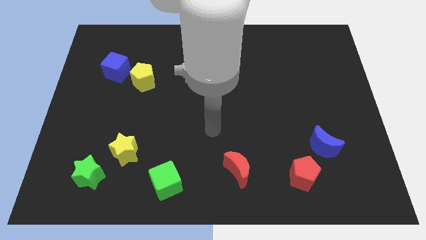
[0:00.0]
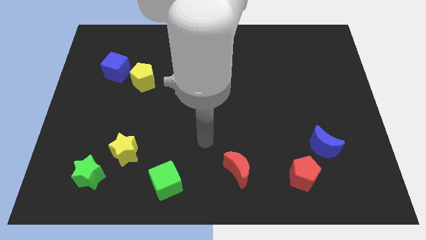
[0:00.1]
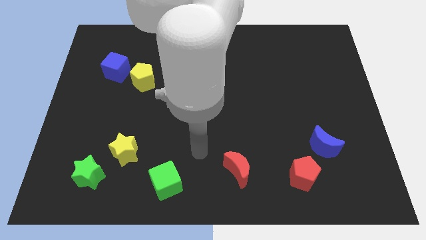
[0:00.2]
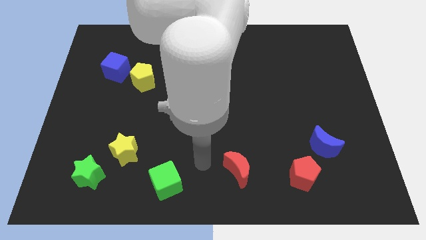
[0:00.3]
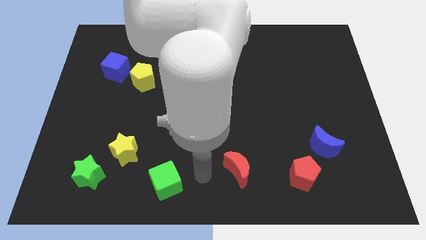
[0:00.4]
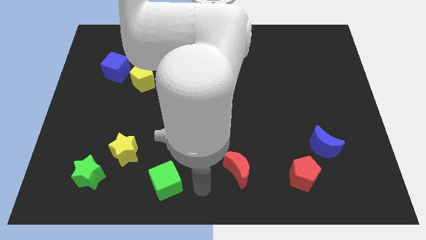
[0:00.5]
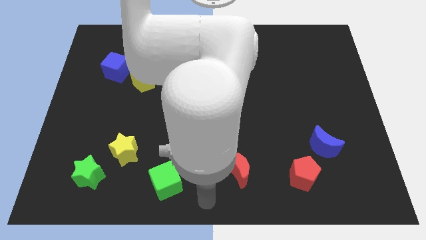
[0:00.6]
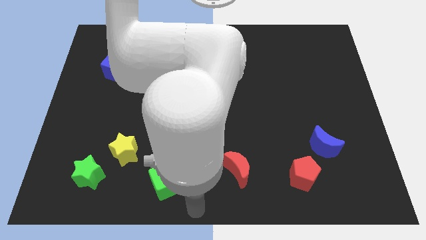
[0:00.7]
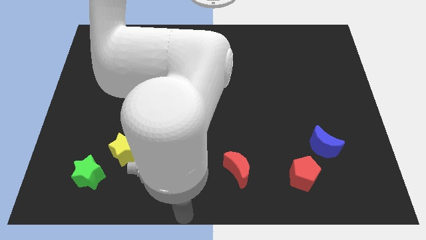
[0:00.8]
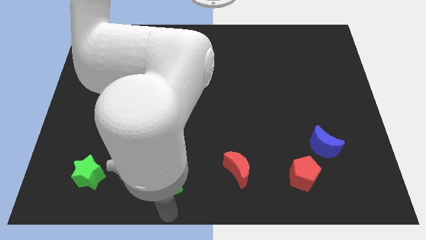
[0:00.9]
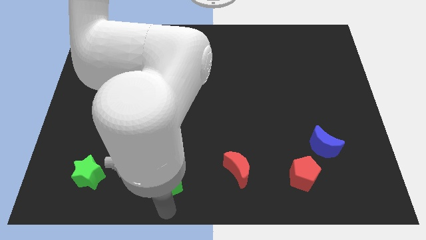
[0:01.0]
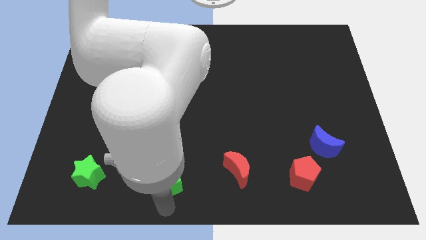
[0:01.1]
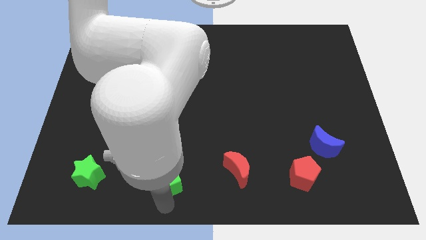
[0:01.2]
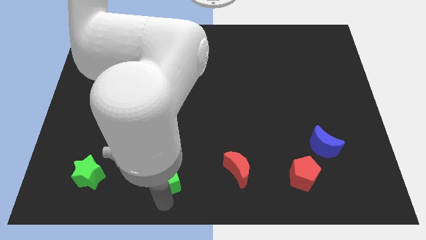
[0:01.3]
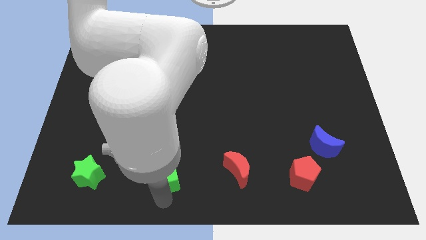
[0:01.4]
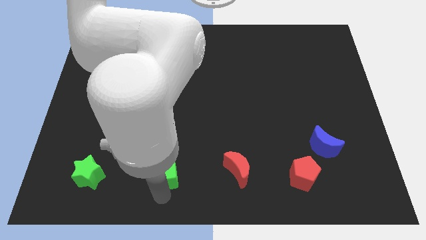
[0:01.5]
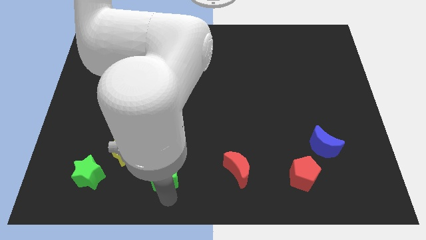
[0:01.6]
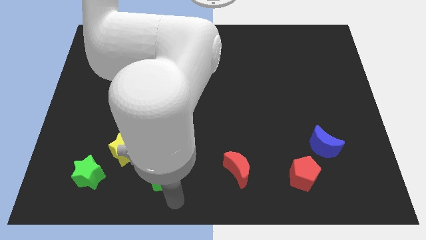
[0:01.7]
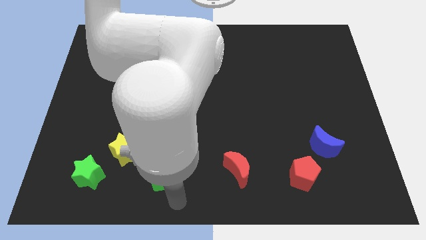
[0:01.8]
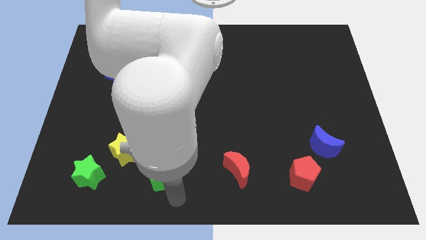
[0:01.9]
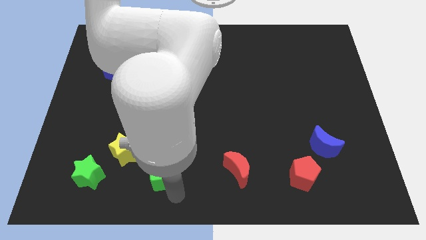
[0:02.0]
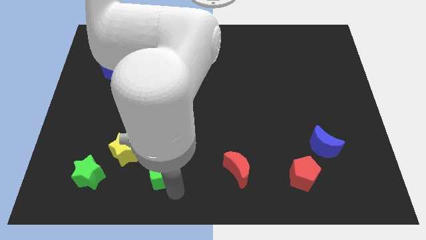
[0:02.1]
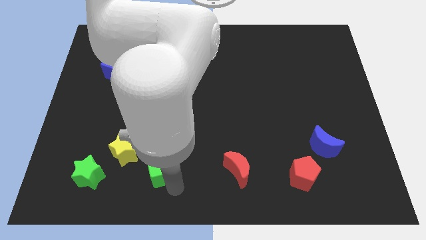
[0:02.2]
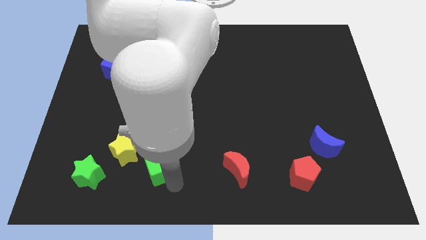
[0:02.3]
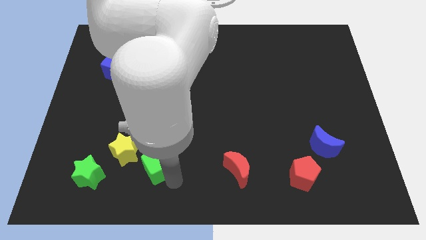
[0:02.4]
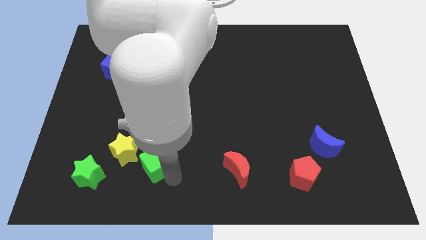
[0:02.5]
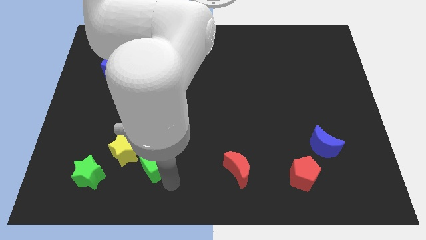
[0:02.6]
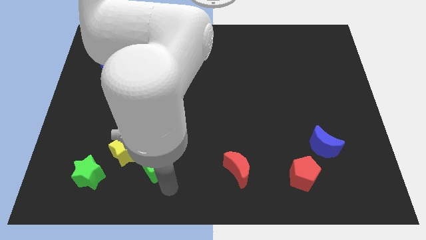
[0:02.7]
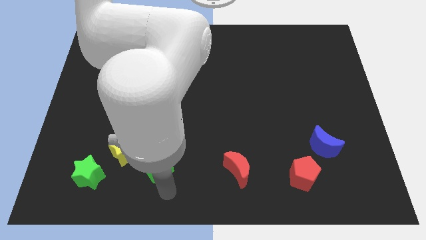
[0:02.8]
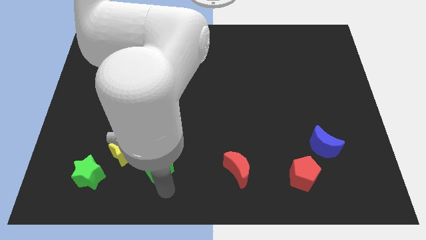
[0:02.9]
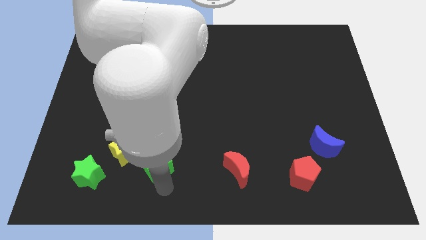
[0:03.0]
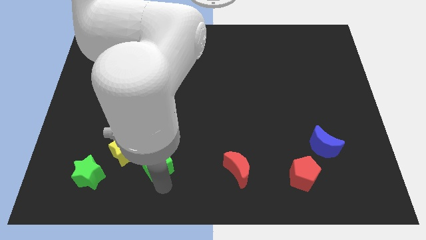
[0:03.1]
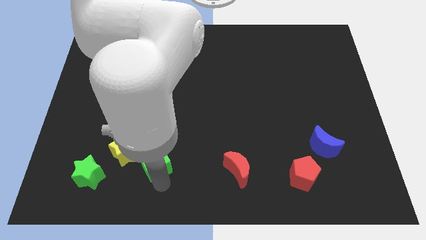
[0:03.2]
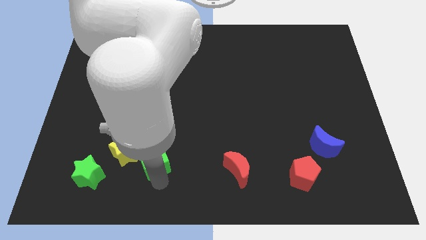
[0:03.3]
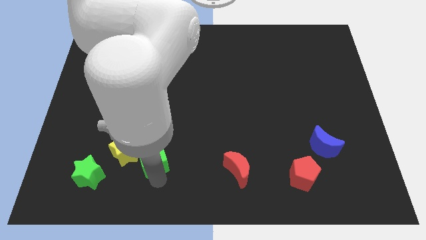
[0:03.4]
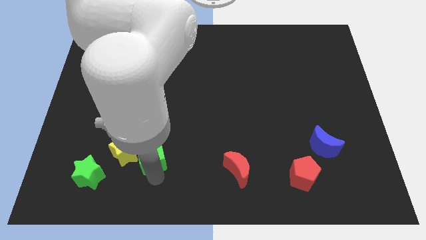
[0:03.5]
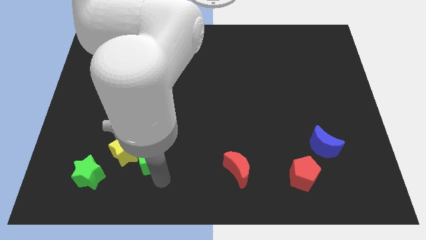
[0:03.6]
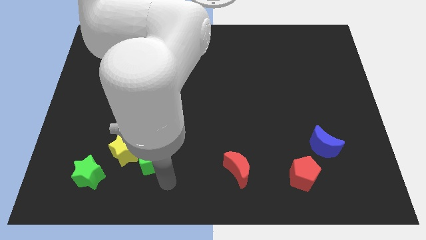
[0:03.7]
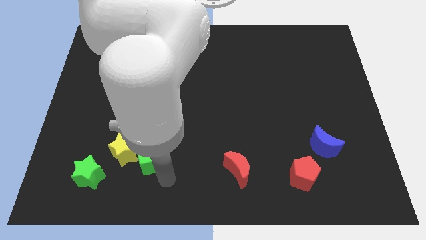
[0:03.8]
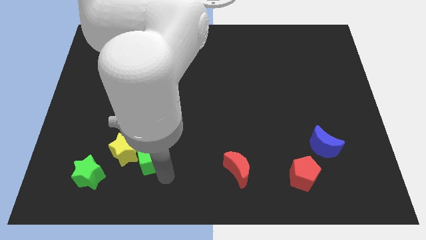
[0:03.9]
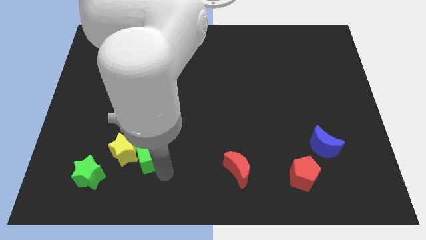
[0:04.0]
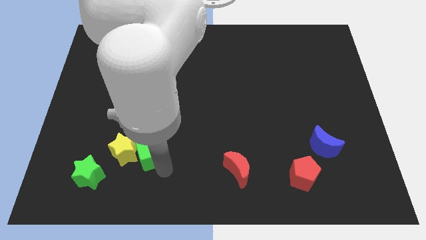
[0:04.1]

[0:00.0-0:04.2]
slide the green cube diagonally upwards and to the left a little bit

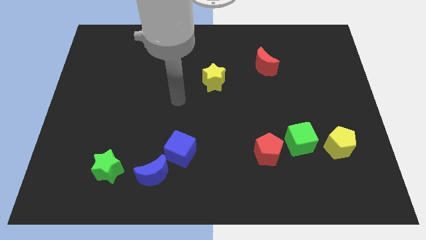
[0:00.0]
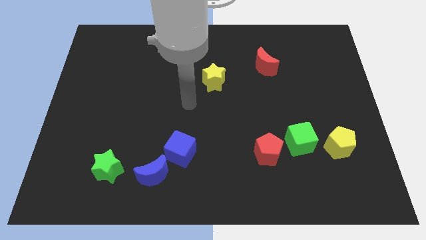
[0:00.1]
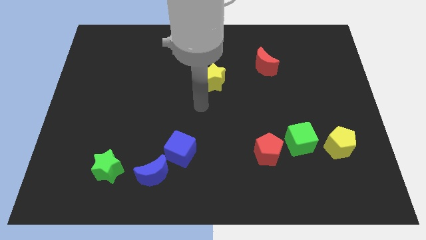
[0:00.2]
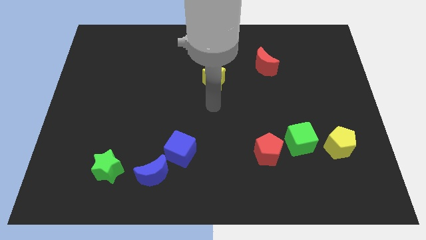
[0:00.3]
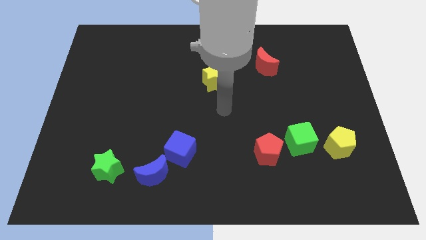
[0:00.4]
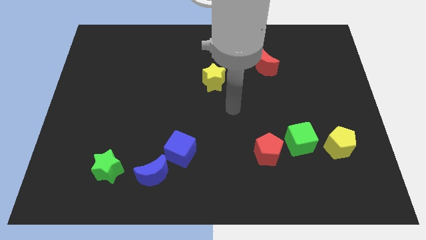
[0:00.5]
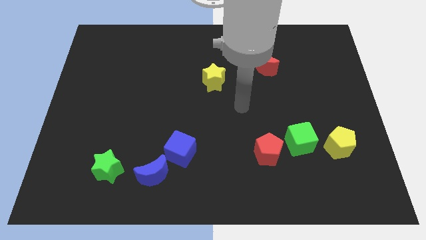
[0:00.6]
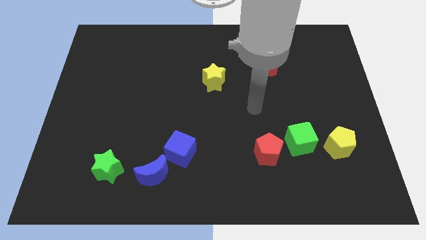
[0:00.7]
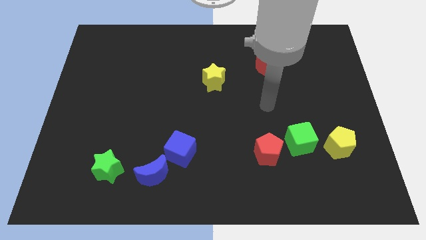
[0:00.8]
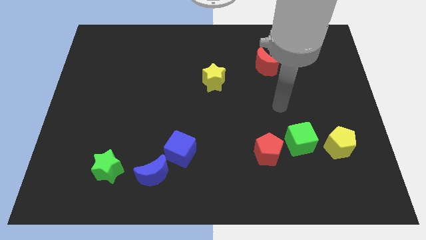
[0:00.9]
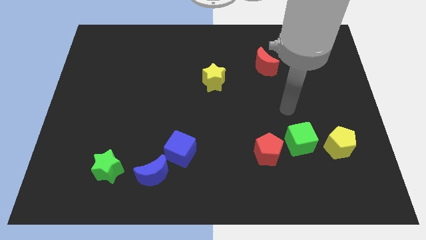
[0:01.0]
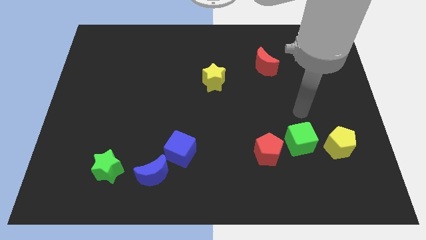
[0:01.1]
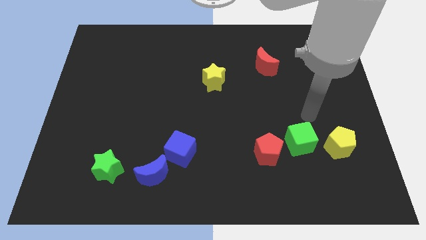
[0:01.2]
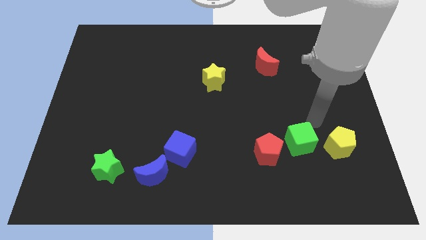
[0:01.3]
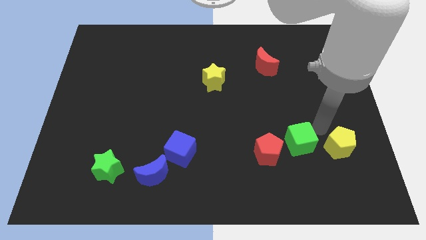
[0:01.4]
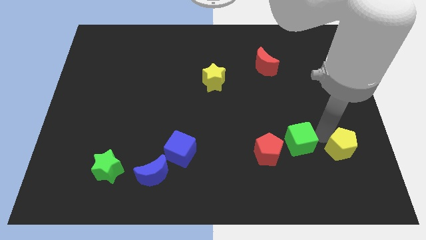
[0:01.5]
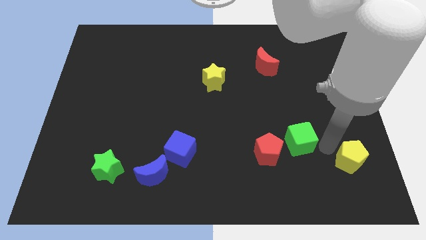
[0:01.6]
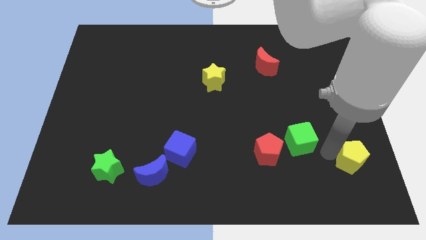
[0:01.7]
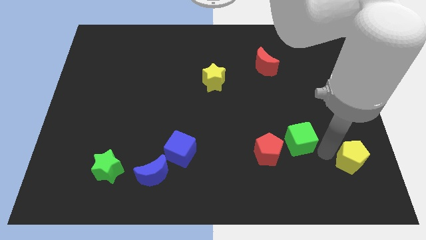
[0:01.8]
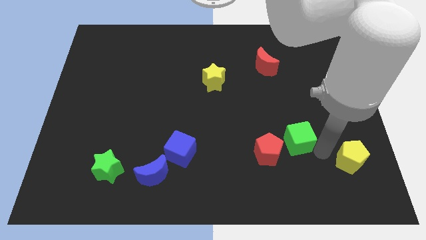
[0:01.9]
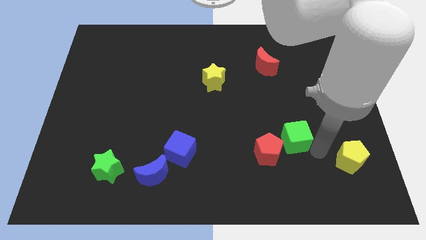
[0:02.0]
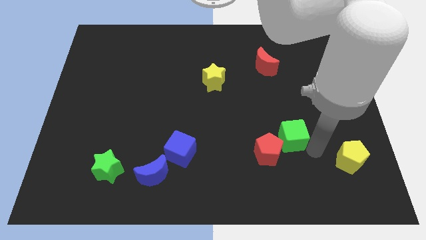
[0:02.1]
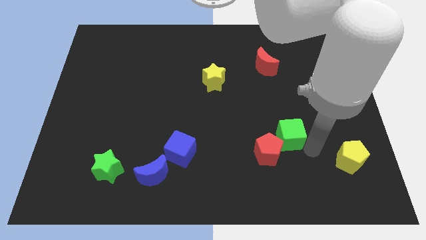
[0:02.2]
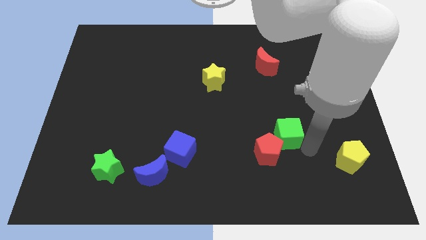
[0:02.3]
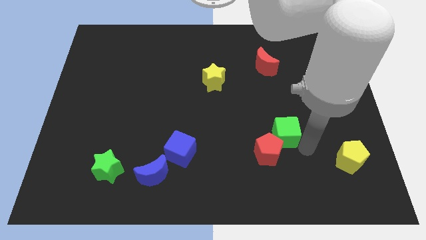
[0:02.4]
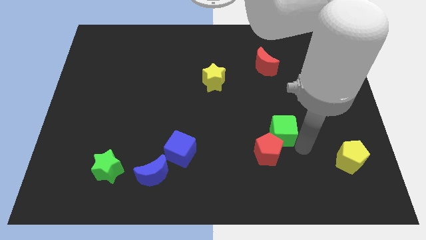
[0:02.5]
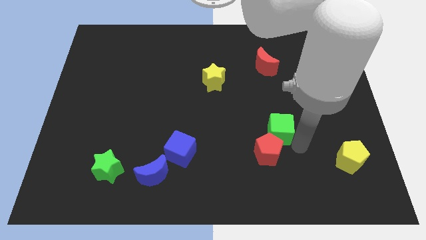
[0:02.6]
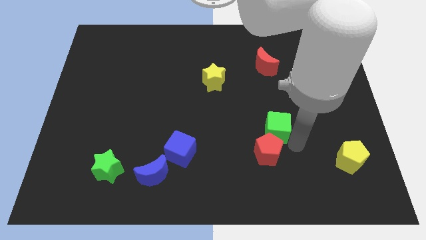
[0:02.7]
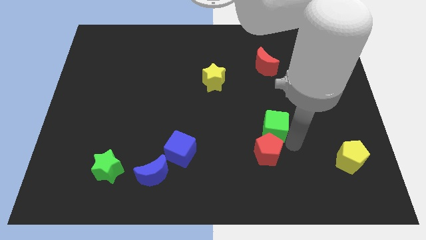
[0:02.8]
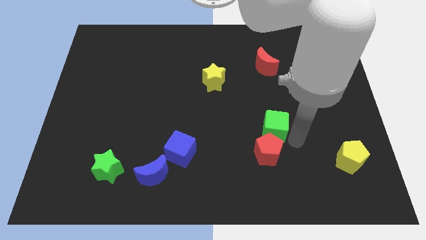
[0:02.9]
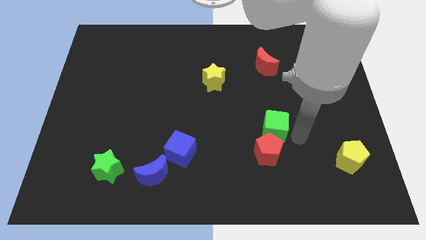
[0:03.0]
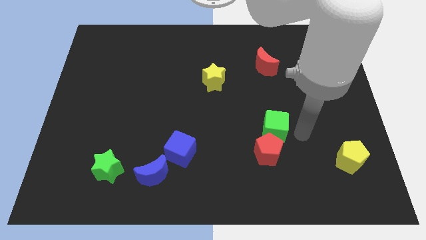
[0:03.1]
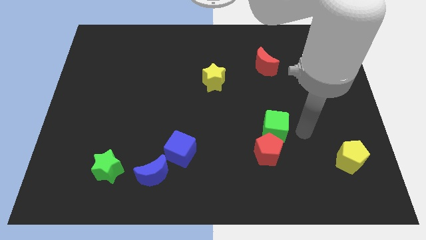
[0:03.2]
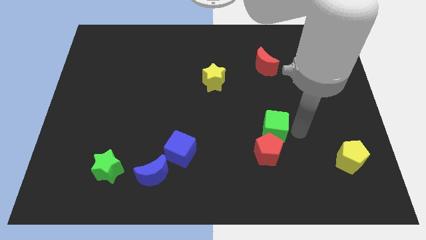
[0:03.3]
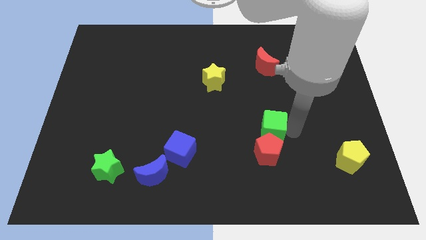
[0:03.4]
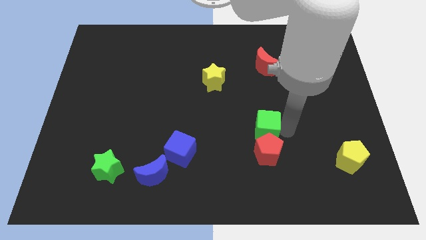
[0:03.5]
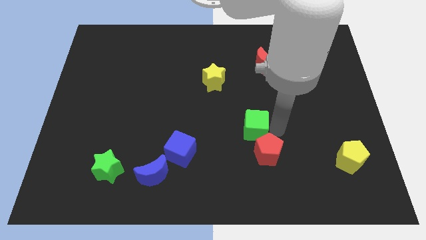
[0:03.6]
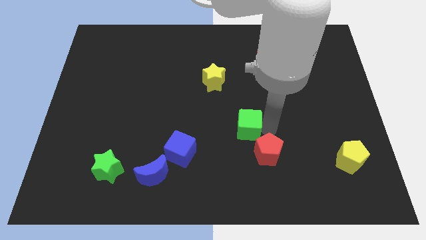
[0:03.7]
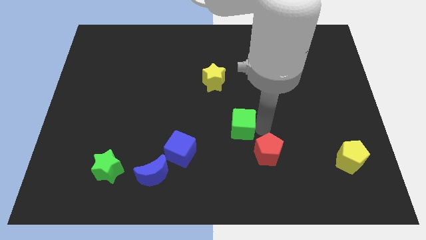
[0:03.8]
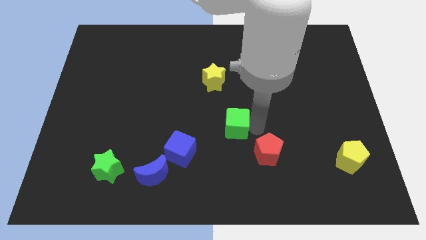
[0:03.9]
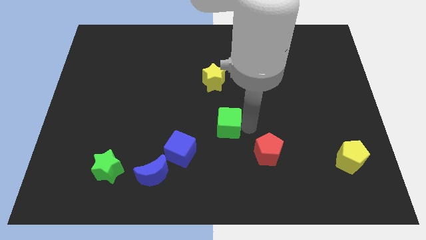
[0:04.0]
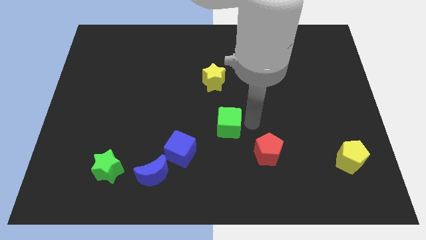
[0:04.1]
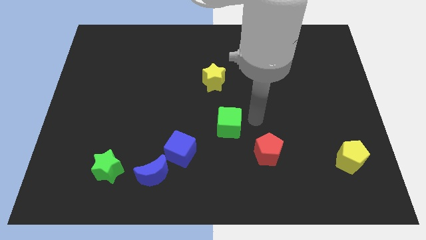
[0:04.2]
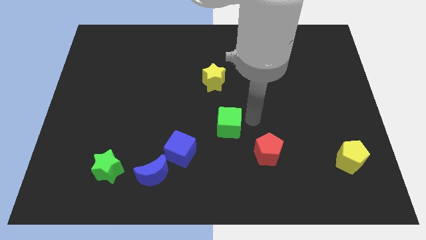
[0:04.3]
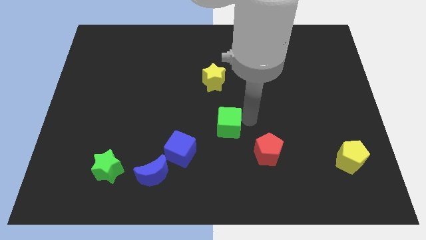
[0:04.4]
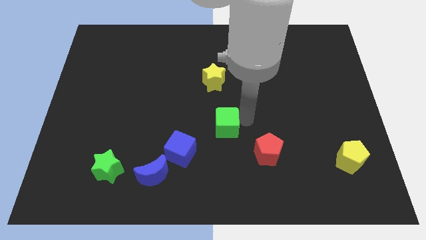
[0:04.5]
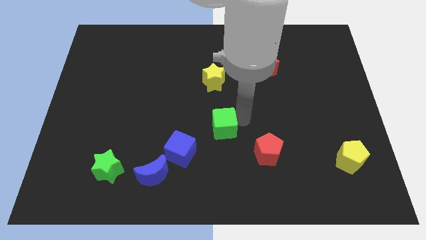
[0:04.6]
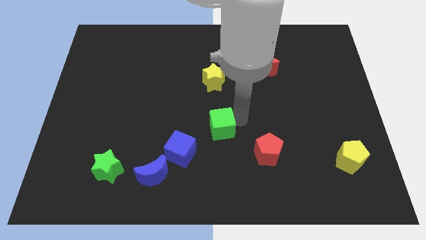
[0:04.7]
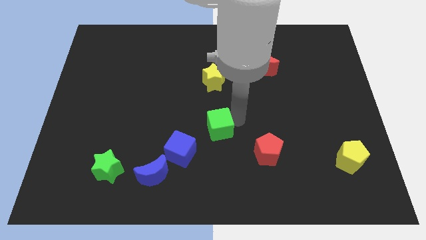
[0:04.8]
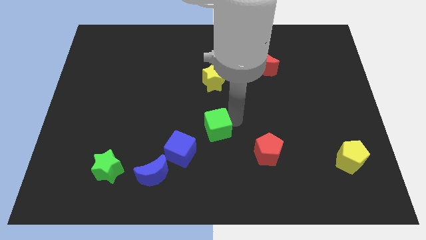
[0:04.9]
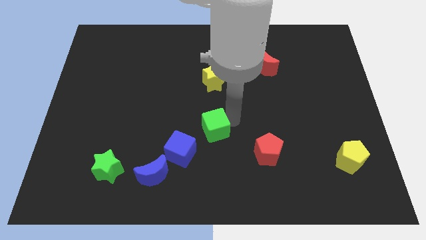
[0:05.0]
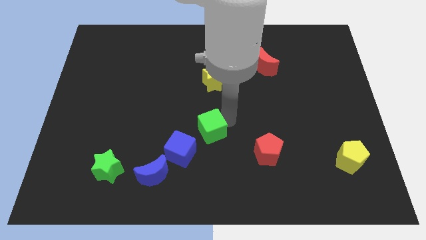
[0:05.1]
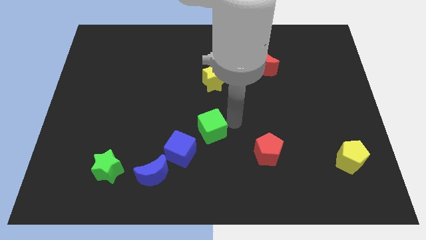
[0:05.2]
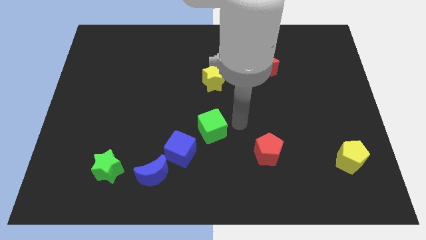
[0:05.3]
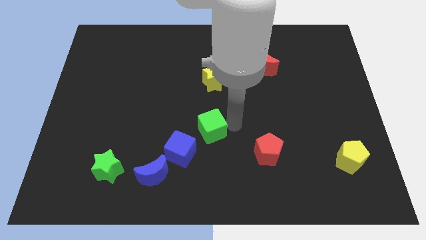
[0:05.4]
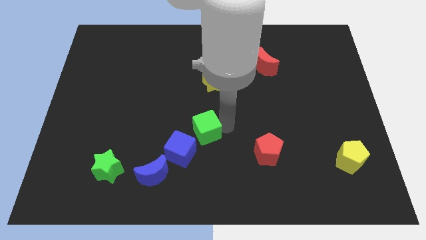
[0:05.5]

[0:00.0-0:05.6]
slide the green cube to the left
